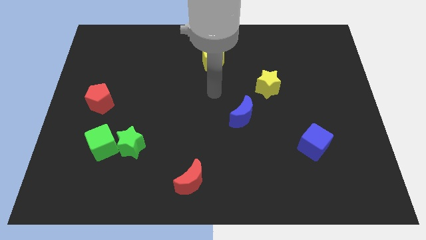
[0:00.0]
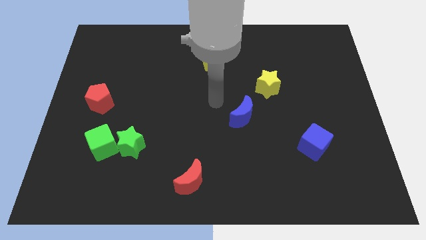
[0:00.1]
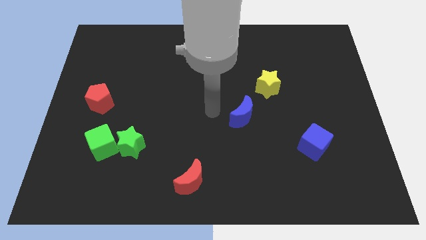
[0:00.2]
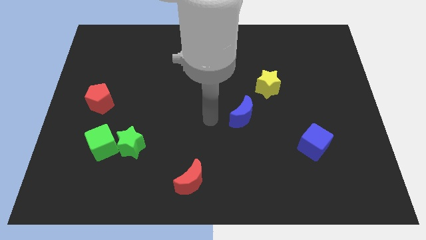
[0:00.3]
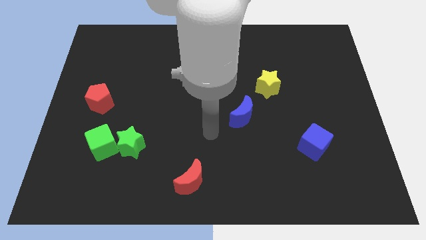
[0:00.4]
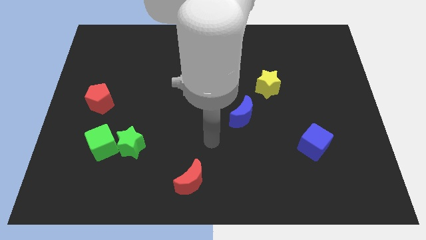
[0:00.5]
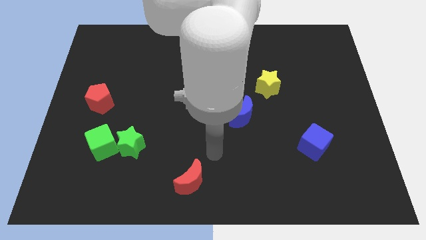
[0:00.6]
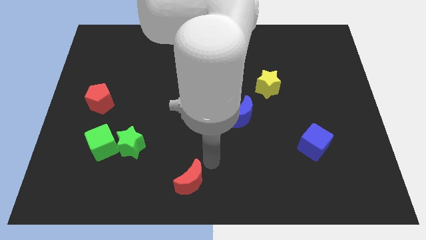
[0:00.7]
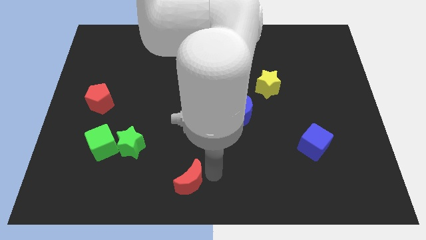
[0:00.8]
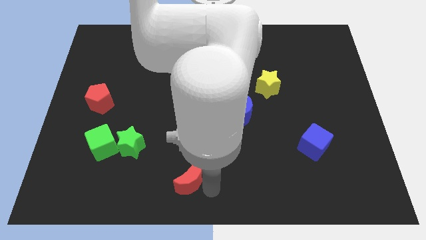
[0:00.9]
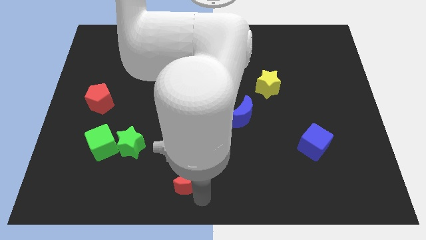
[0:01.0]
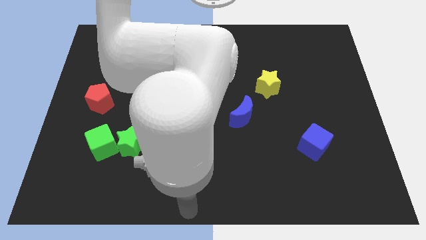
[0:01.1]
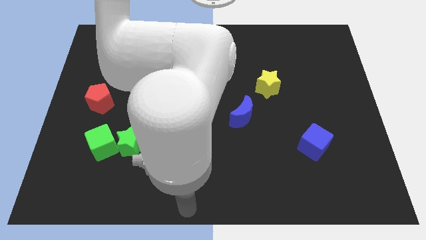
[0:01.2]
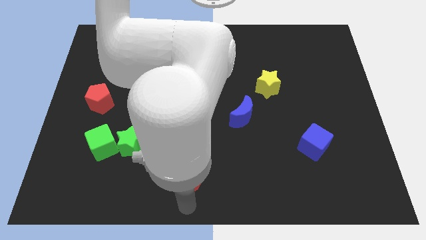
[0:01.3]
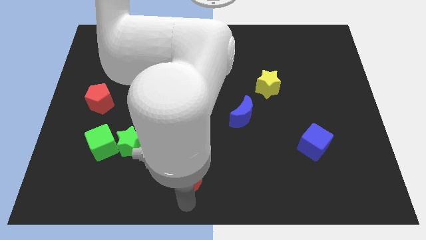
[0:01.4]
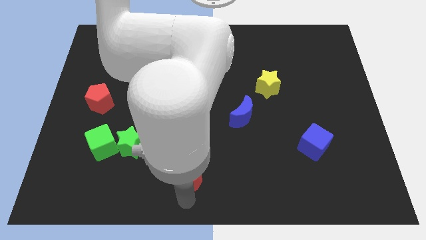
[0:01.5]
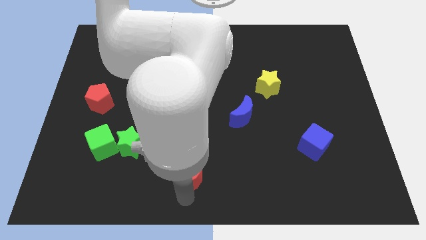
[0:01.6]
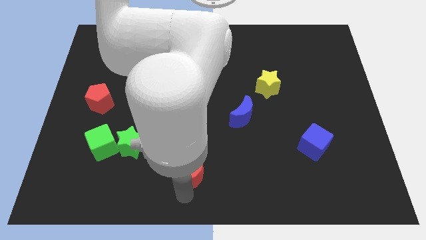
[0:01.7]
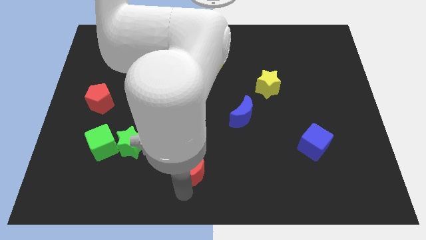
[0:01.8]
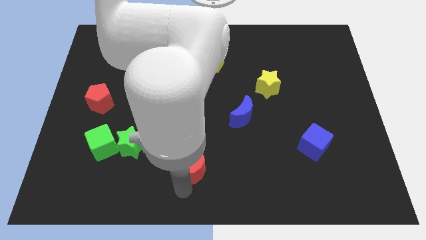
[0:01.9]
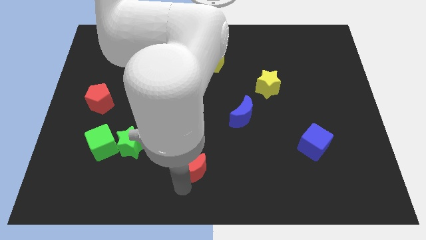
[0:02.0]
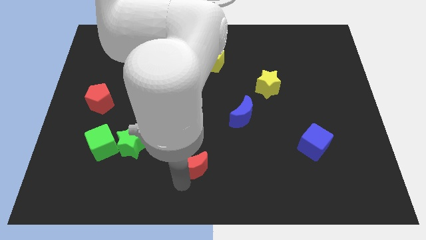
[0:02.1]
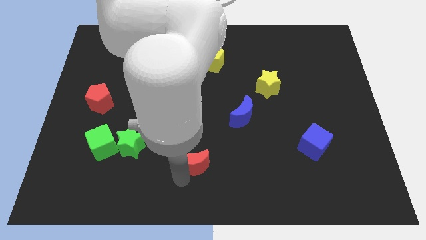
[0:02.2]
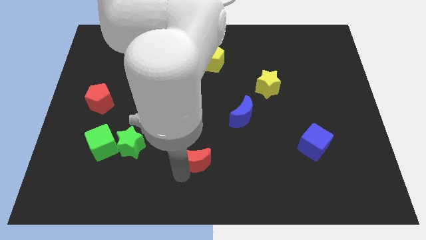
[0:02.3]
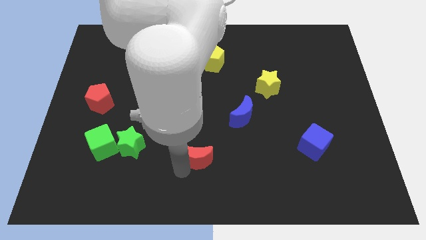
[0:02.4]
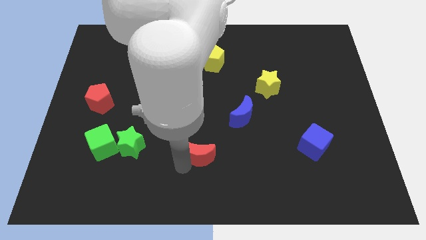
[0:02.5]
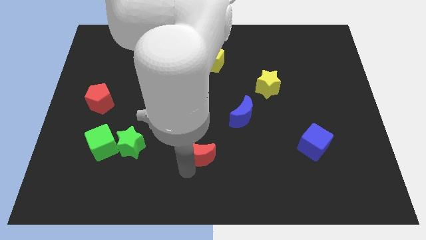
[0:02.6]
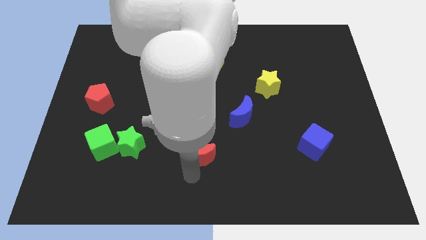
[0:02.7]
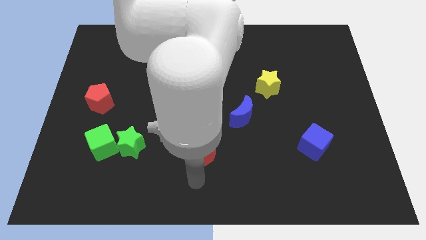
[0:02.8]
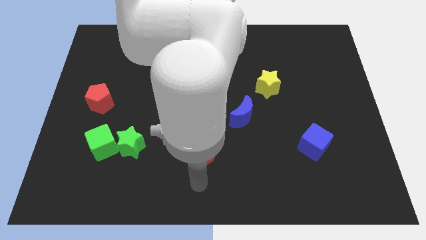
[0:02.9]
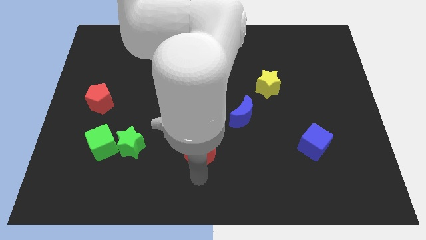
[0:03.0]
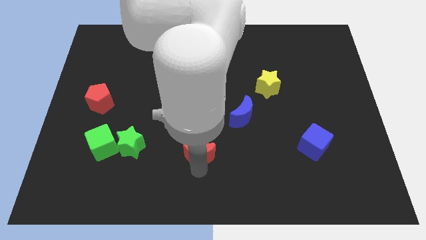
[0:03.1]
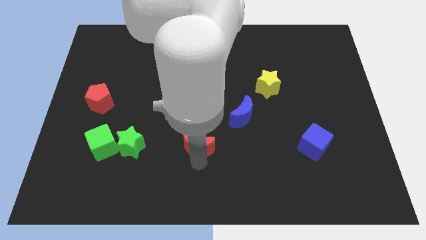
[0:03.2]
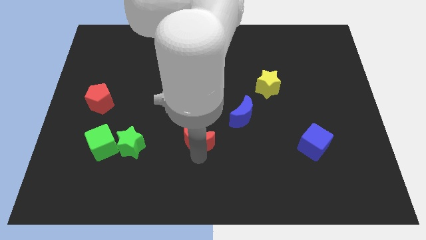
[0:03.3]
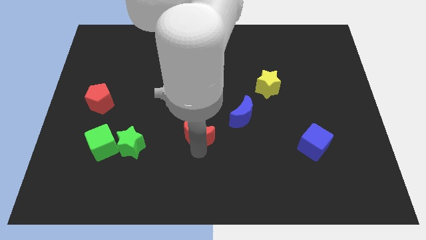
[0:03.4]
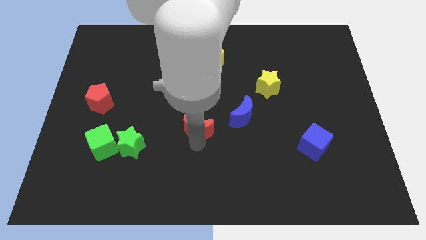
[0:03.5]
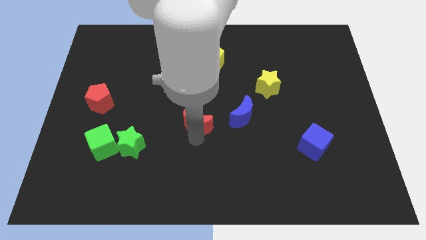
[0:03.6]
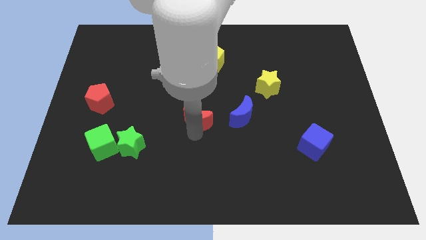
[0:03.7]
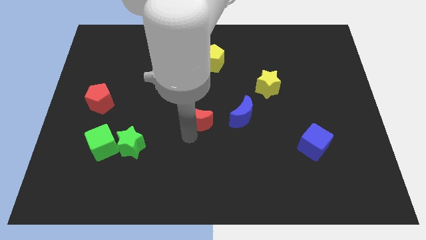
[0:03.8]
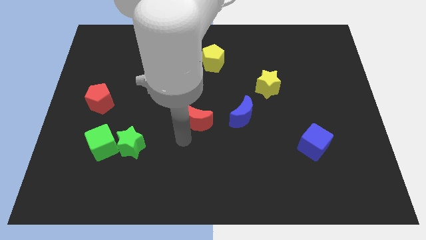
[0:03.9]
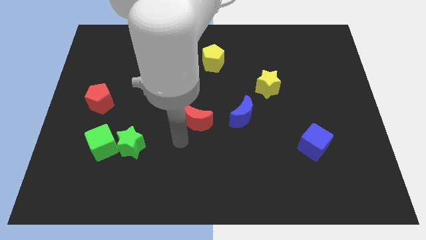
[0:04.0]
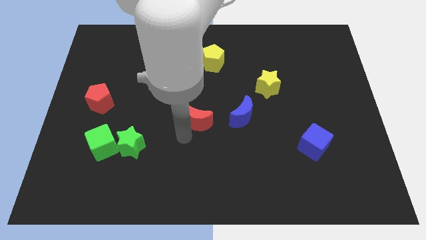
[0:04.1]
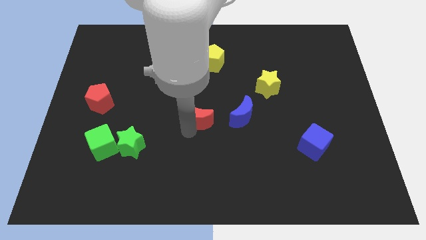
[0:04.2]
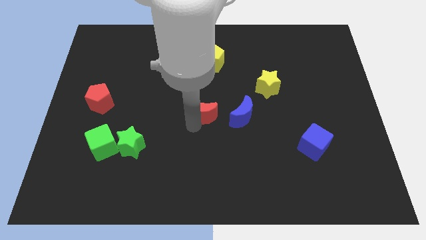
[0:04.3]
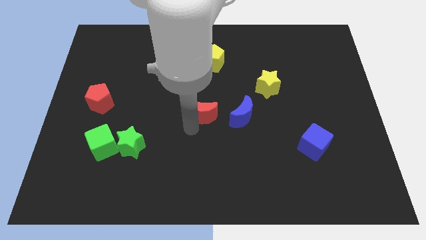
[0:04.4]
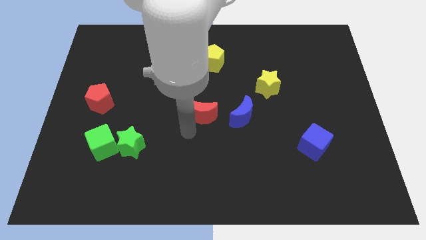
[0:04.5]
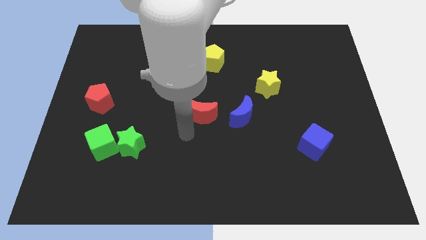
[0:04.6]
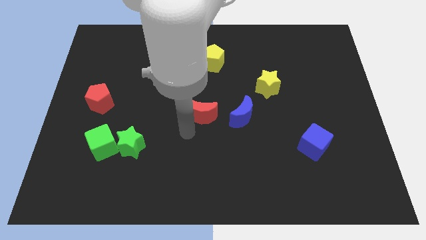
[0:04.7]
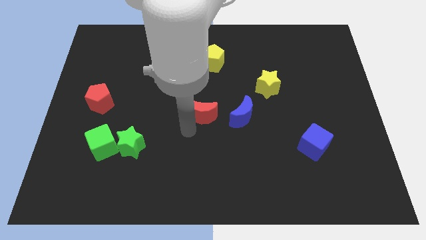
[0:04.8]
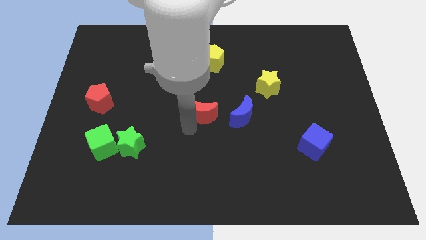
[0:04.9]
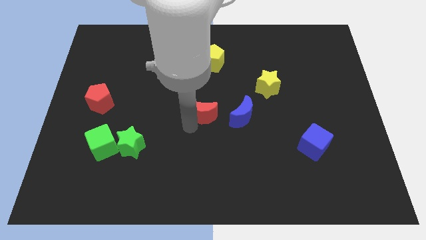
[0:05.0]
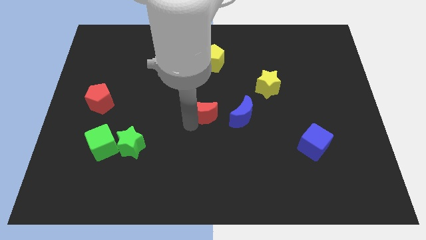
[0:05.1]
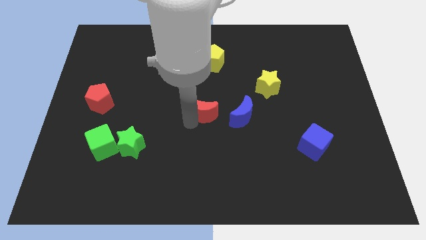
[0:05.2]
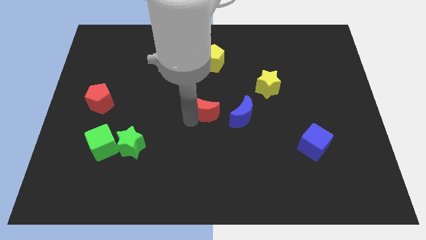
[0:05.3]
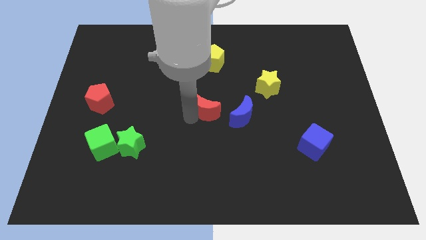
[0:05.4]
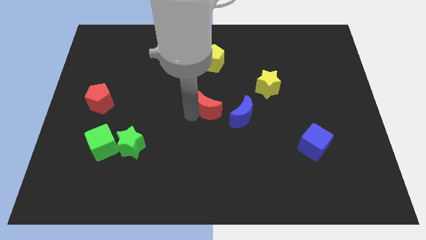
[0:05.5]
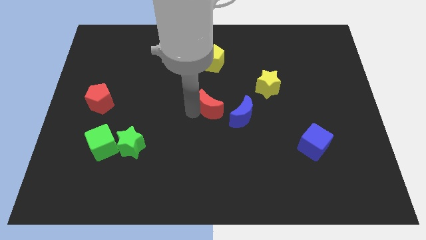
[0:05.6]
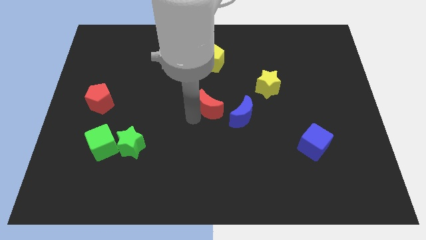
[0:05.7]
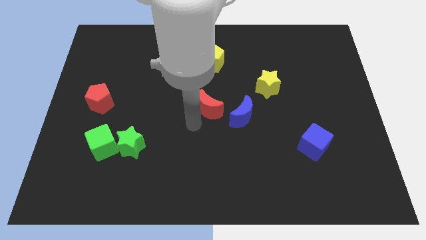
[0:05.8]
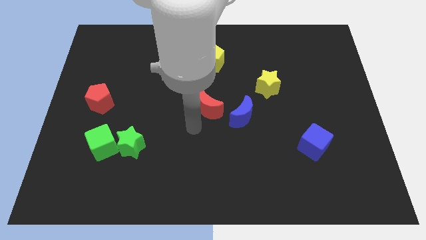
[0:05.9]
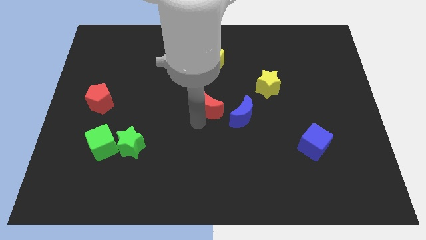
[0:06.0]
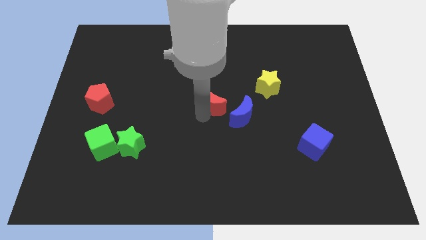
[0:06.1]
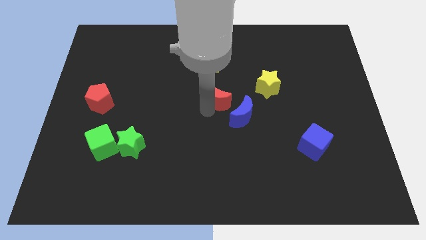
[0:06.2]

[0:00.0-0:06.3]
push the red moon just left of the yellow star

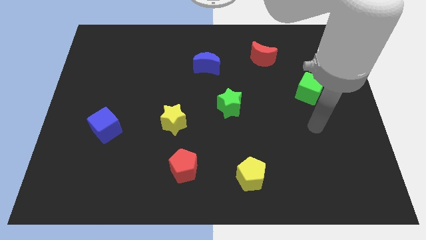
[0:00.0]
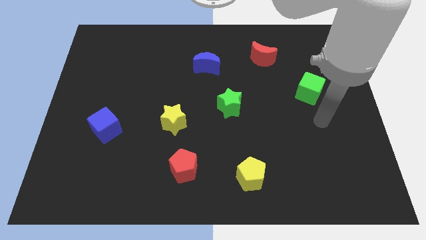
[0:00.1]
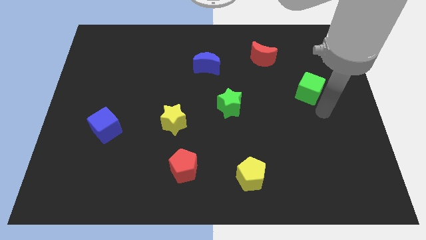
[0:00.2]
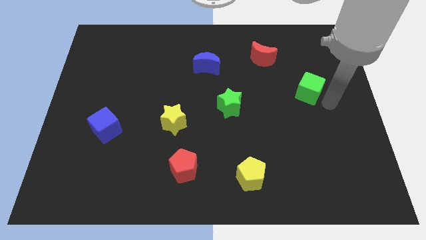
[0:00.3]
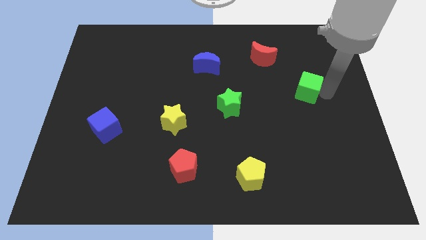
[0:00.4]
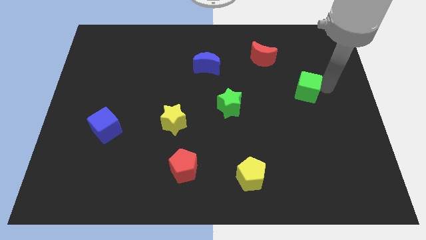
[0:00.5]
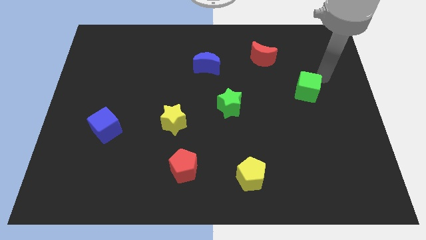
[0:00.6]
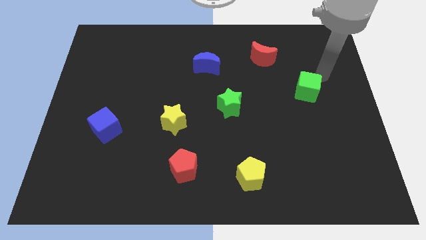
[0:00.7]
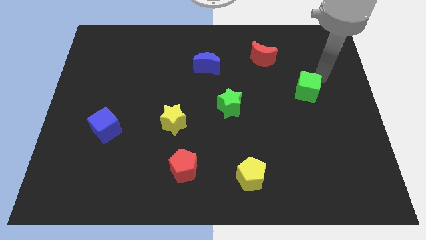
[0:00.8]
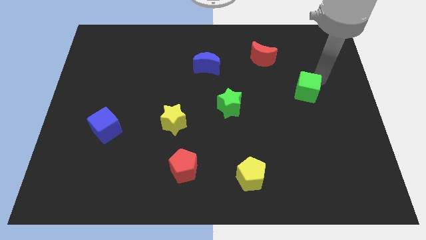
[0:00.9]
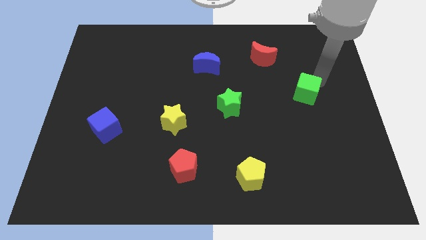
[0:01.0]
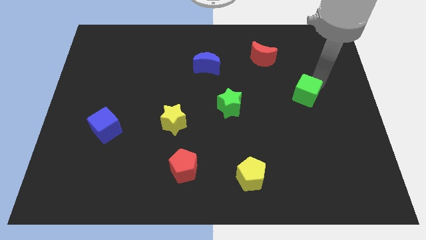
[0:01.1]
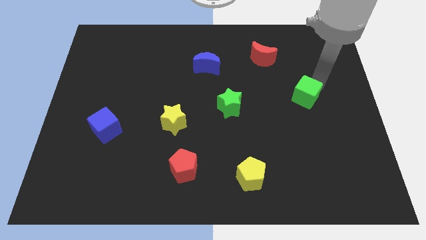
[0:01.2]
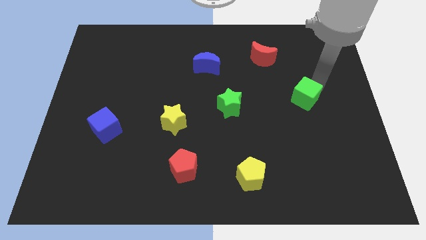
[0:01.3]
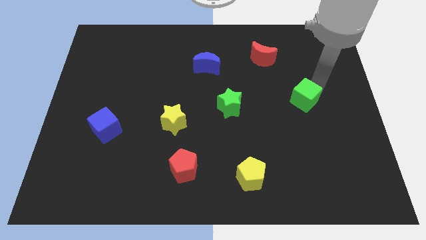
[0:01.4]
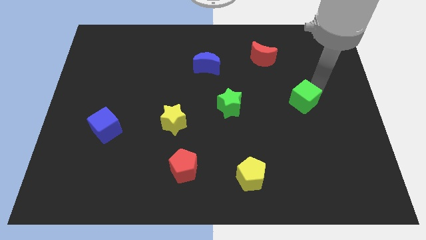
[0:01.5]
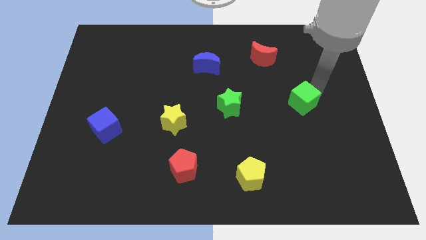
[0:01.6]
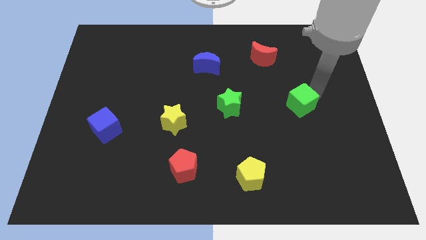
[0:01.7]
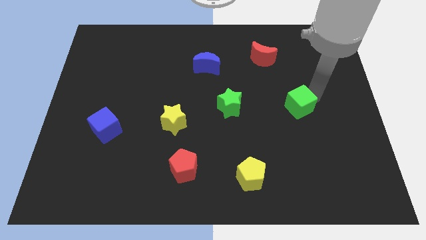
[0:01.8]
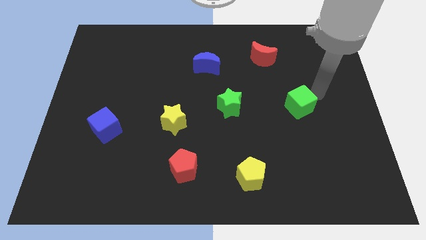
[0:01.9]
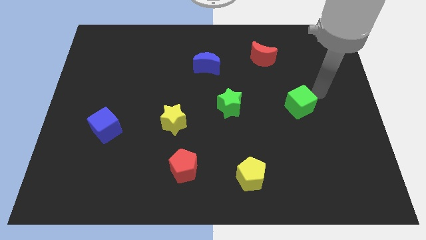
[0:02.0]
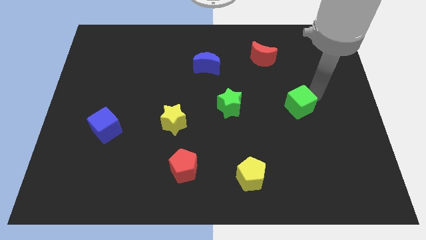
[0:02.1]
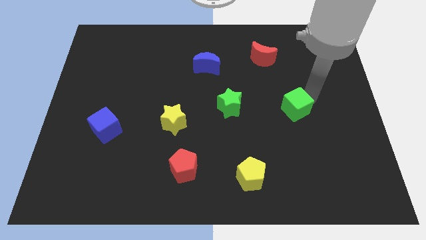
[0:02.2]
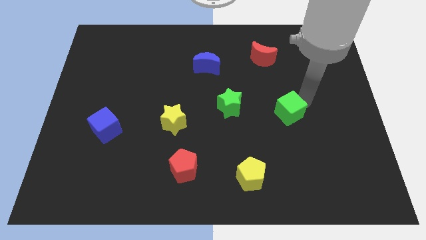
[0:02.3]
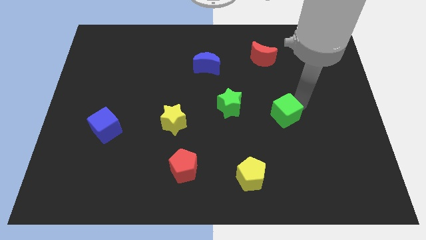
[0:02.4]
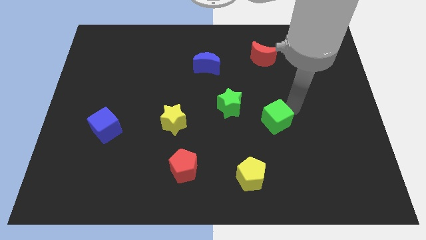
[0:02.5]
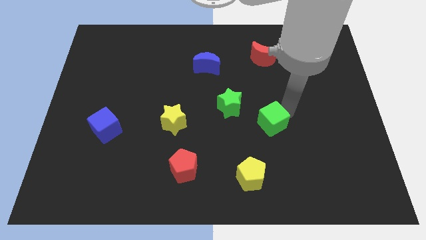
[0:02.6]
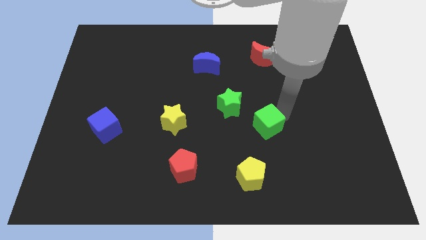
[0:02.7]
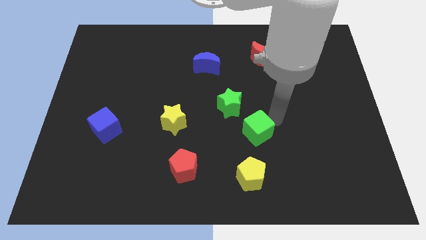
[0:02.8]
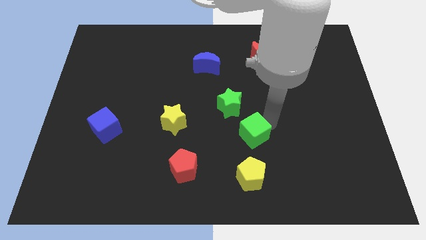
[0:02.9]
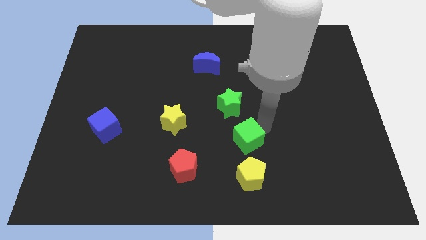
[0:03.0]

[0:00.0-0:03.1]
put the green cube to the bottom side of the green star
